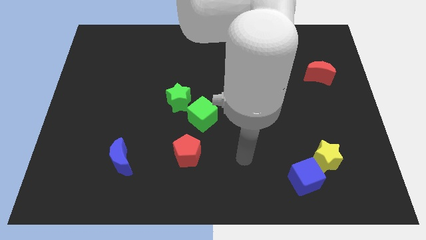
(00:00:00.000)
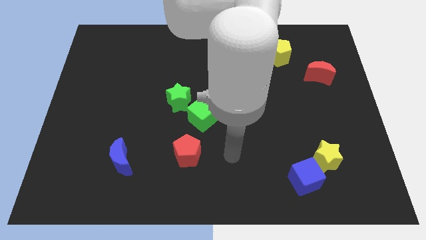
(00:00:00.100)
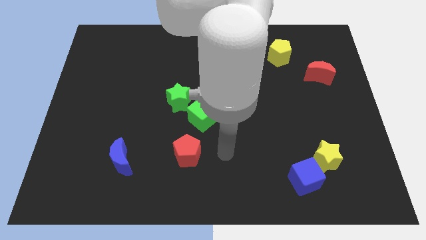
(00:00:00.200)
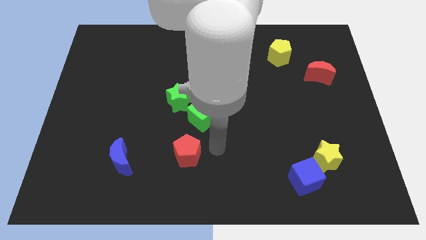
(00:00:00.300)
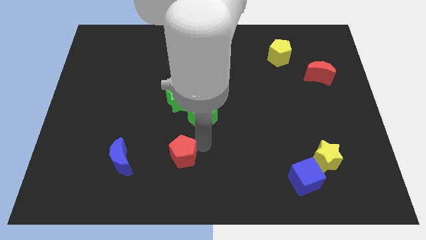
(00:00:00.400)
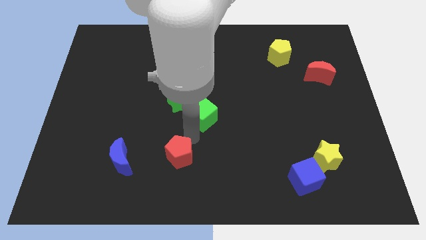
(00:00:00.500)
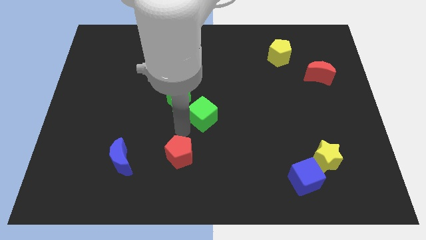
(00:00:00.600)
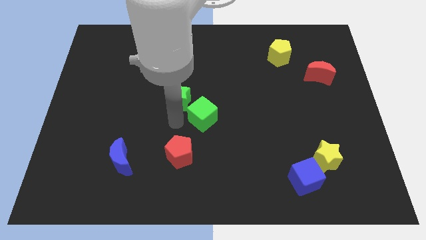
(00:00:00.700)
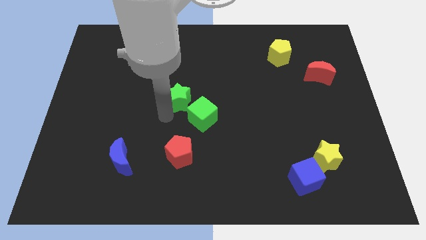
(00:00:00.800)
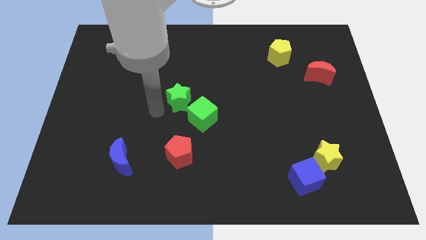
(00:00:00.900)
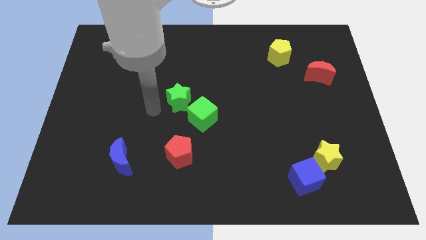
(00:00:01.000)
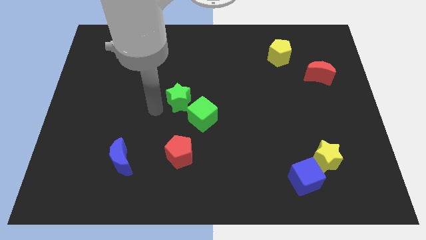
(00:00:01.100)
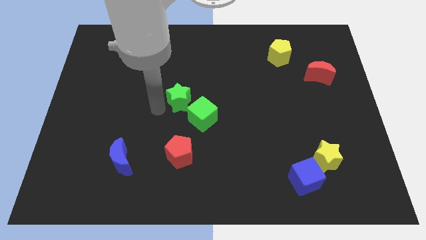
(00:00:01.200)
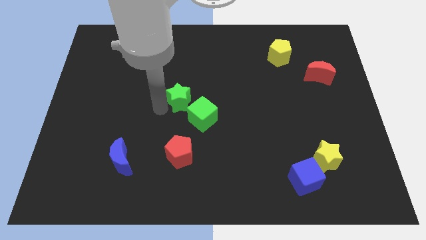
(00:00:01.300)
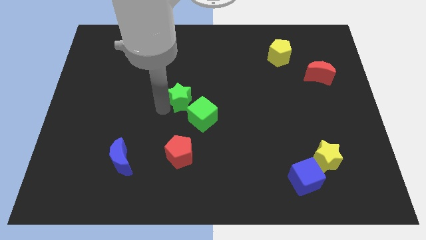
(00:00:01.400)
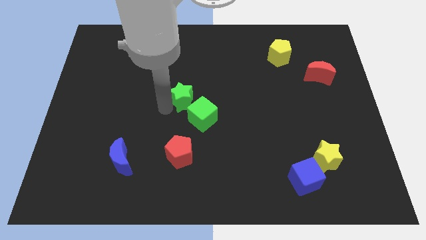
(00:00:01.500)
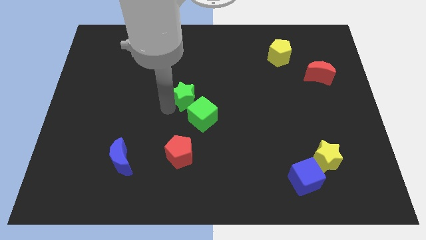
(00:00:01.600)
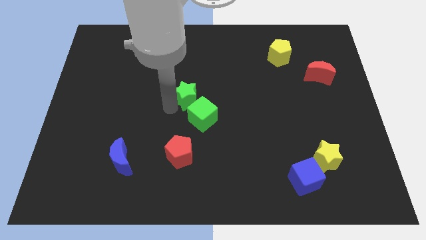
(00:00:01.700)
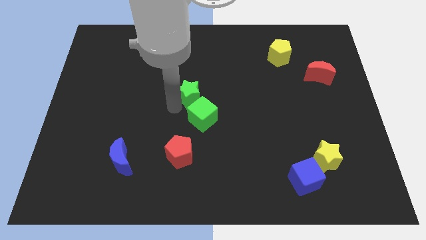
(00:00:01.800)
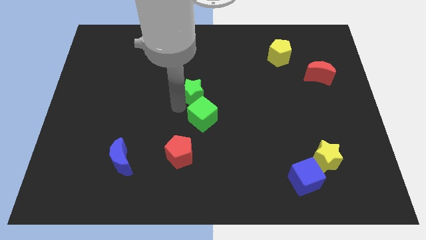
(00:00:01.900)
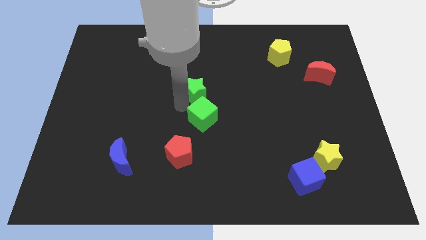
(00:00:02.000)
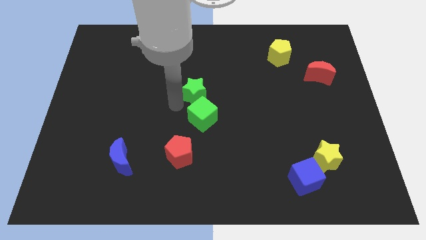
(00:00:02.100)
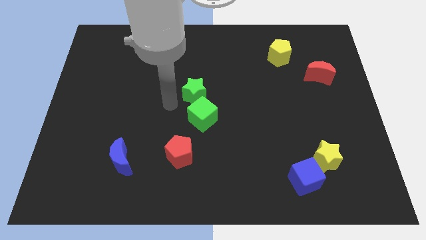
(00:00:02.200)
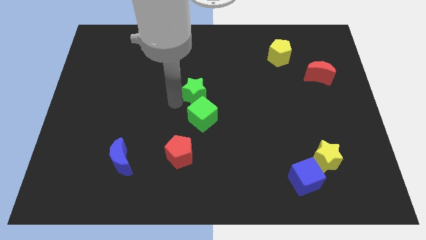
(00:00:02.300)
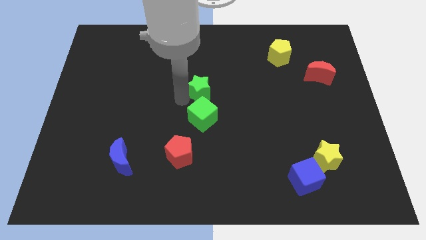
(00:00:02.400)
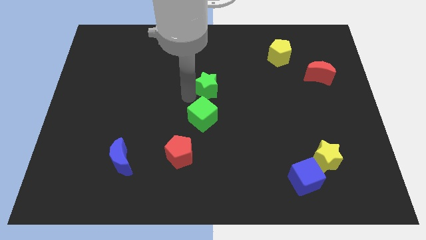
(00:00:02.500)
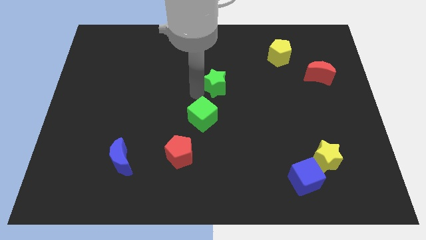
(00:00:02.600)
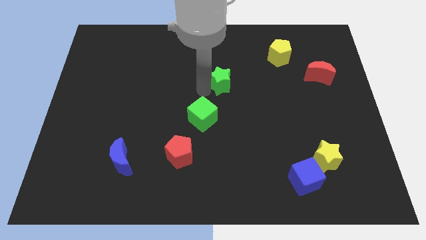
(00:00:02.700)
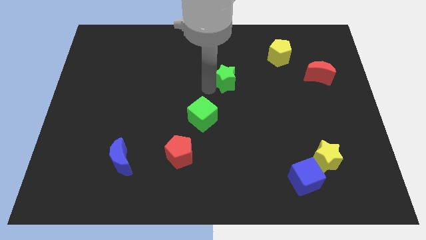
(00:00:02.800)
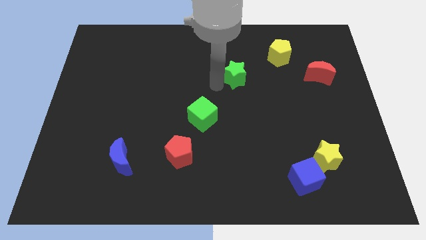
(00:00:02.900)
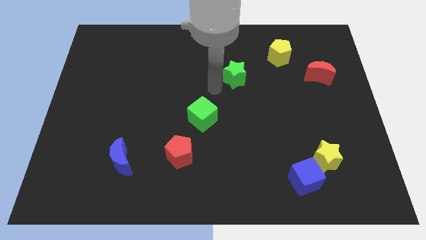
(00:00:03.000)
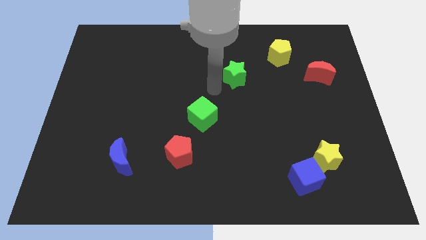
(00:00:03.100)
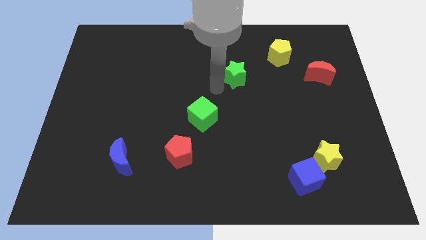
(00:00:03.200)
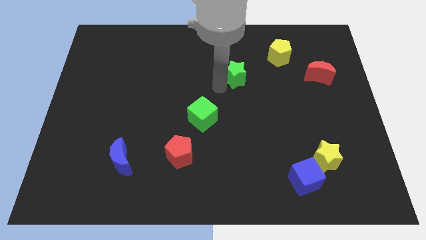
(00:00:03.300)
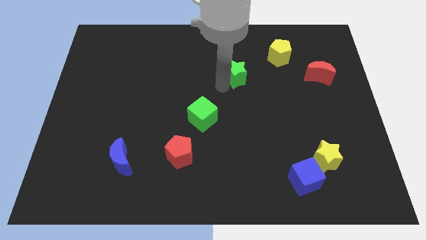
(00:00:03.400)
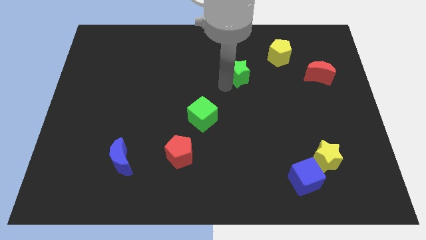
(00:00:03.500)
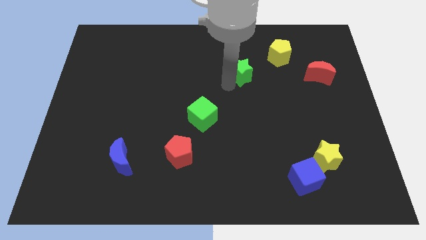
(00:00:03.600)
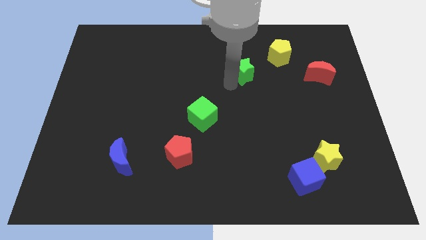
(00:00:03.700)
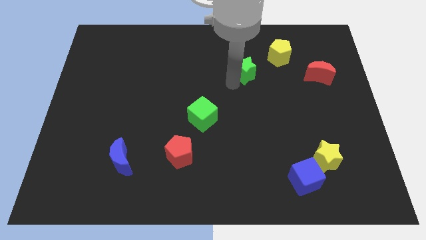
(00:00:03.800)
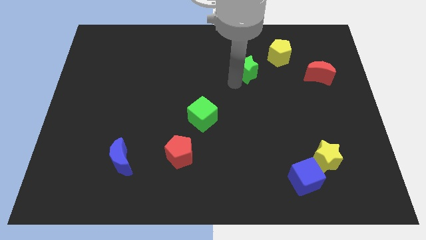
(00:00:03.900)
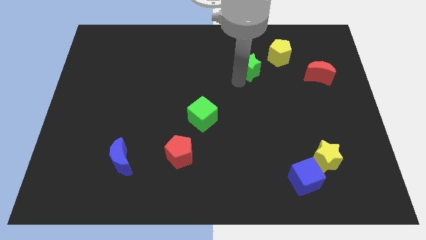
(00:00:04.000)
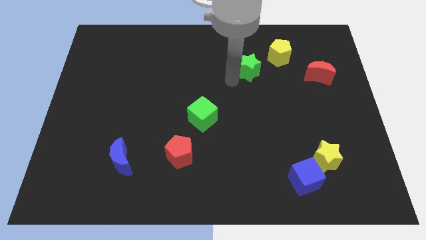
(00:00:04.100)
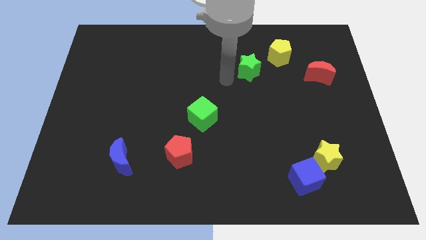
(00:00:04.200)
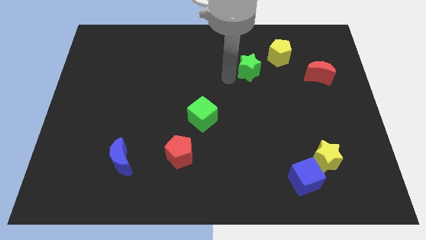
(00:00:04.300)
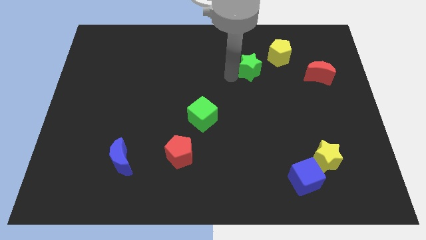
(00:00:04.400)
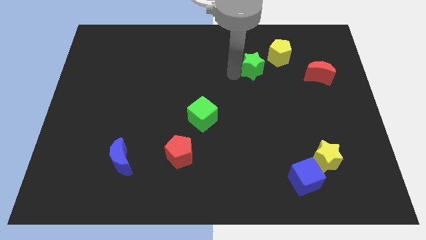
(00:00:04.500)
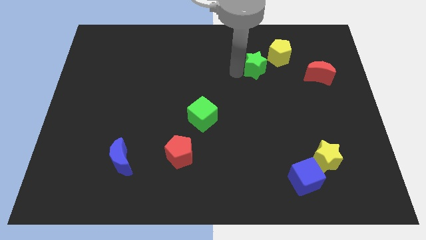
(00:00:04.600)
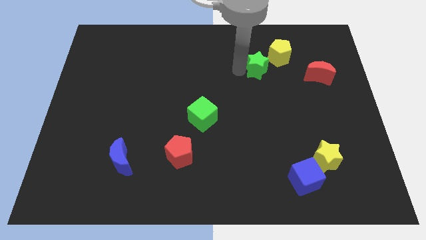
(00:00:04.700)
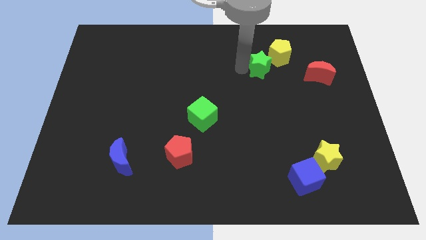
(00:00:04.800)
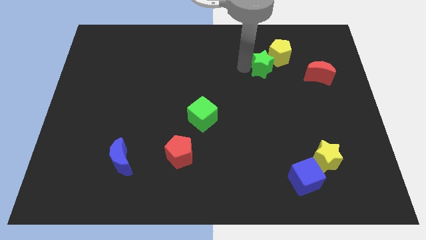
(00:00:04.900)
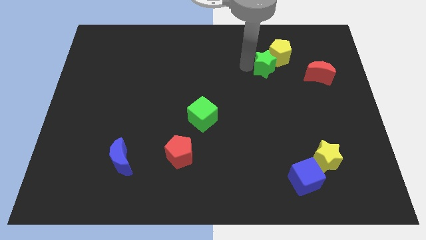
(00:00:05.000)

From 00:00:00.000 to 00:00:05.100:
slide the green star to the yellow pentagon

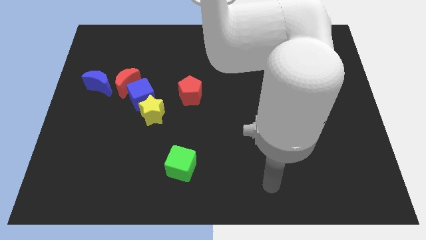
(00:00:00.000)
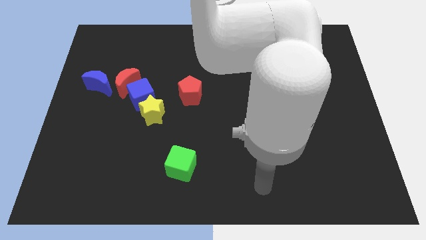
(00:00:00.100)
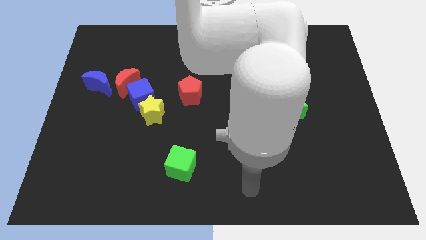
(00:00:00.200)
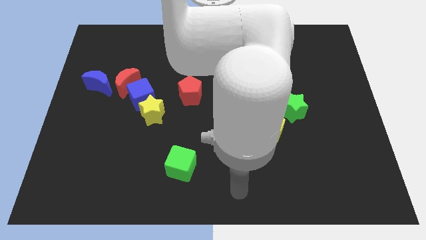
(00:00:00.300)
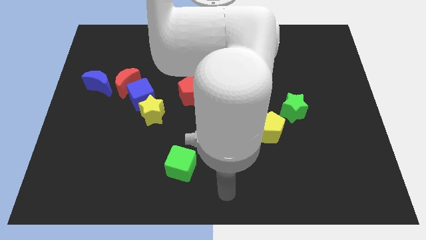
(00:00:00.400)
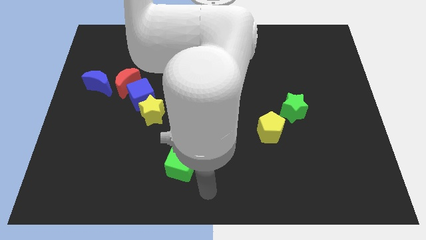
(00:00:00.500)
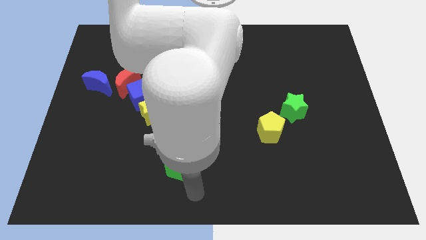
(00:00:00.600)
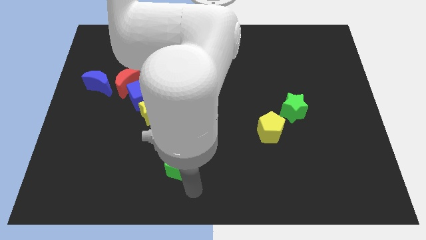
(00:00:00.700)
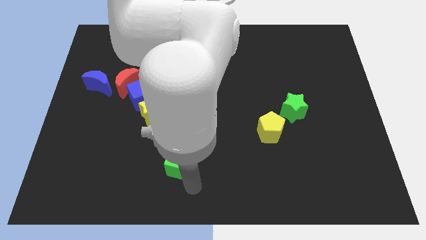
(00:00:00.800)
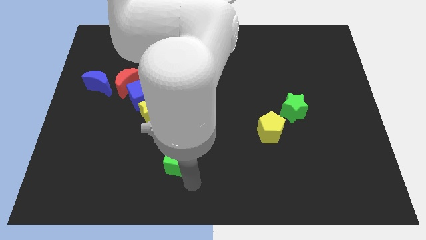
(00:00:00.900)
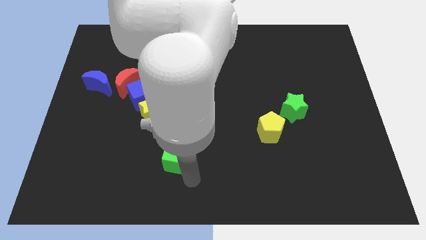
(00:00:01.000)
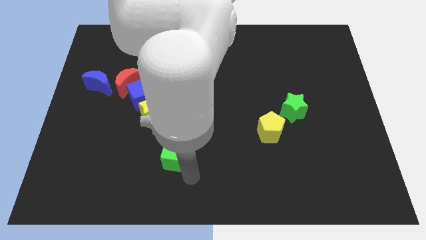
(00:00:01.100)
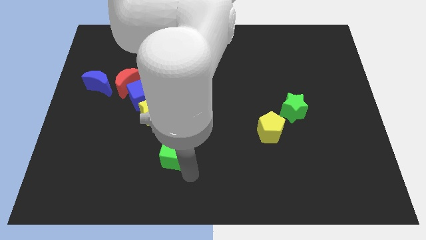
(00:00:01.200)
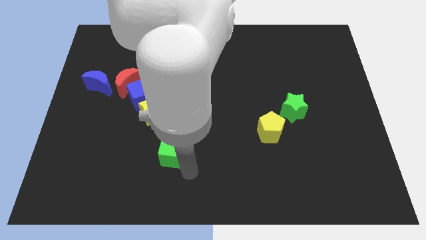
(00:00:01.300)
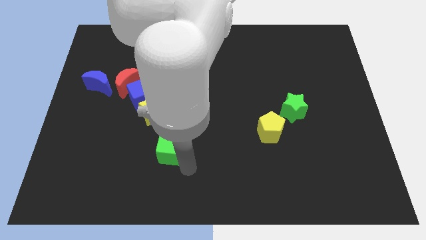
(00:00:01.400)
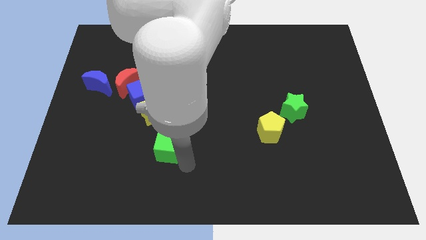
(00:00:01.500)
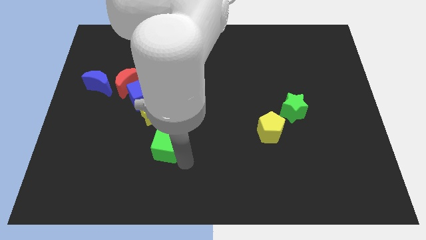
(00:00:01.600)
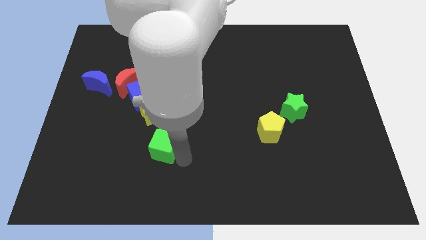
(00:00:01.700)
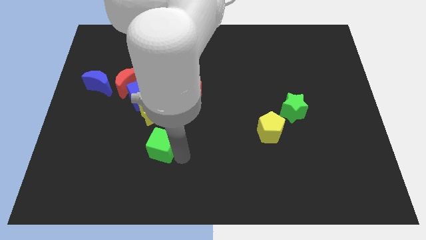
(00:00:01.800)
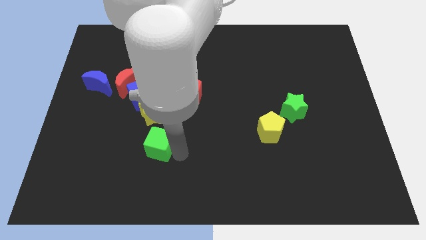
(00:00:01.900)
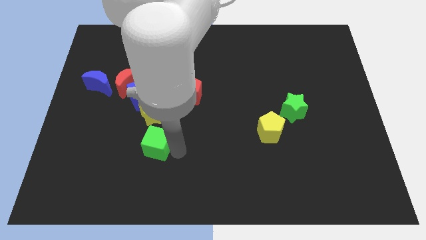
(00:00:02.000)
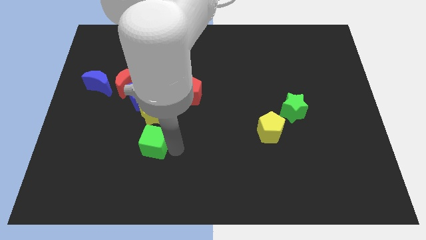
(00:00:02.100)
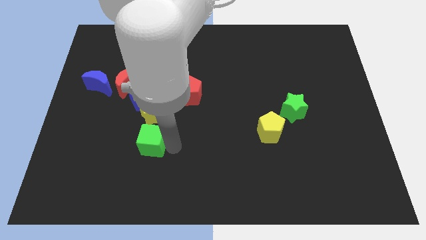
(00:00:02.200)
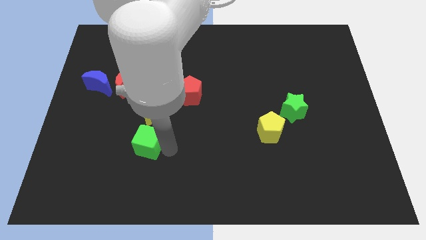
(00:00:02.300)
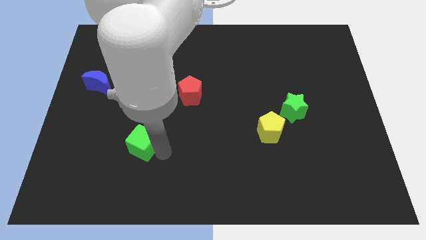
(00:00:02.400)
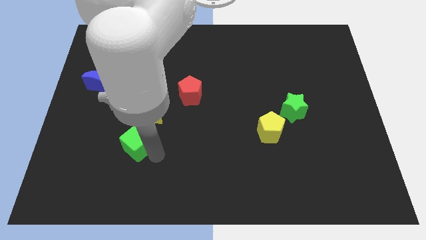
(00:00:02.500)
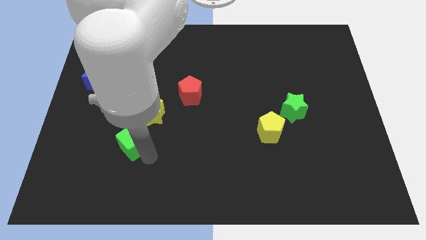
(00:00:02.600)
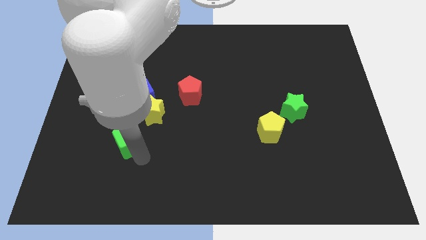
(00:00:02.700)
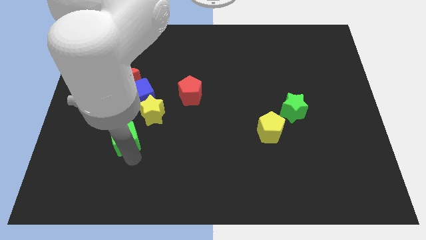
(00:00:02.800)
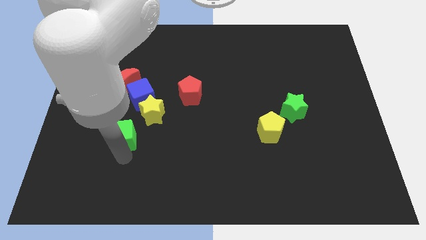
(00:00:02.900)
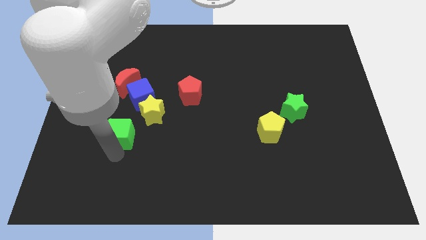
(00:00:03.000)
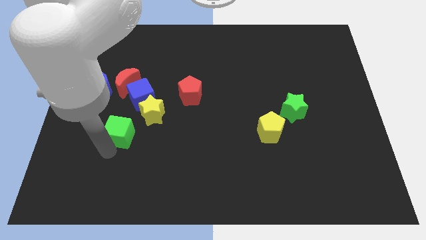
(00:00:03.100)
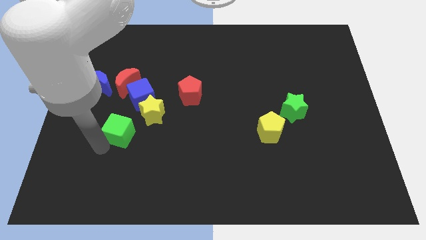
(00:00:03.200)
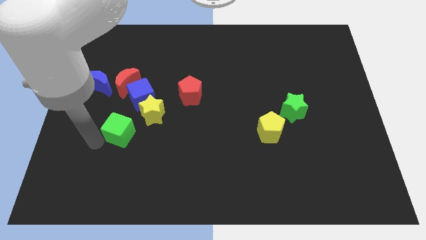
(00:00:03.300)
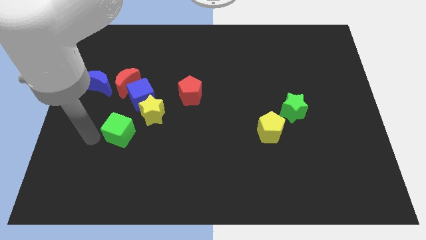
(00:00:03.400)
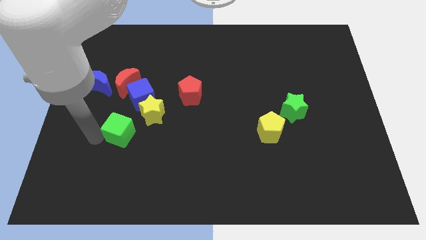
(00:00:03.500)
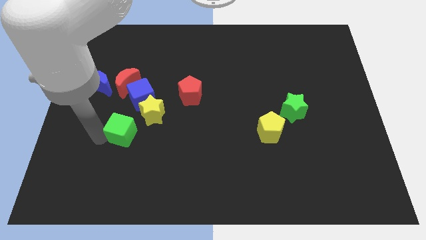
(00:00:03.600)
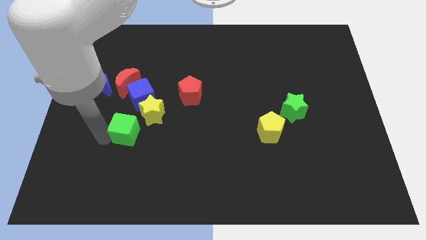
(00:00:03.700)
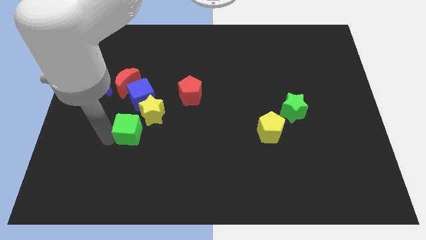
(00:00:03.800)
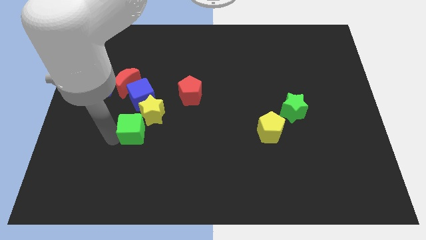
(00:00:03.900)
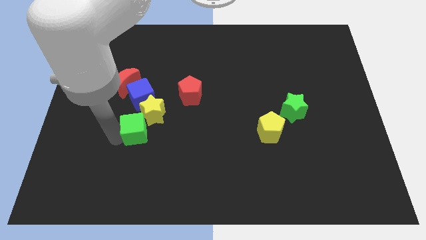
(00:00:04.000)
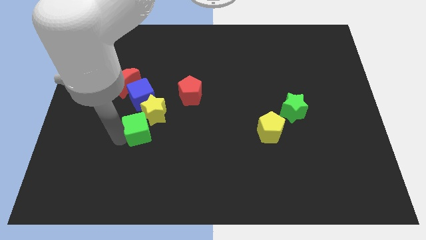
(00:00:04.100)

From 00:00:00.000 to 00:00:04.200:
put the green cube to the yellow star
